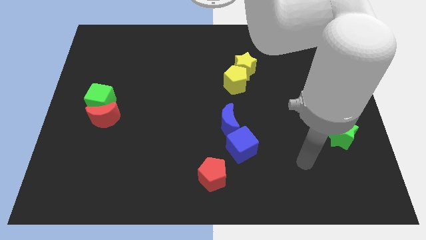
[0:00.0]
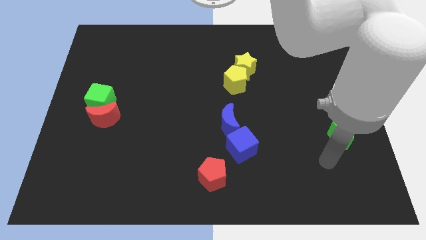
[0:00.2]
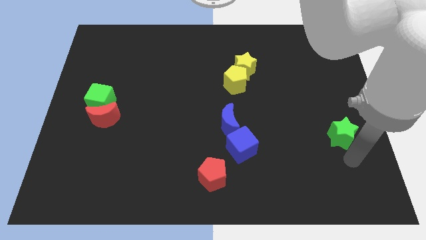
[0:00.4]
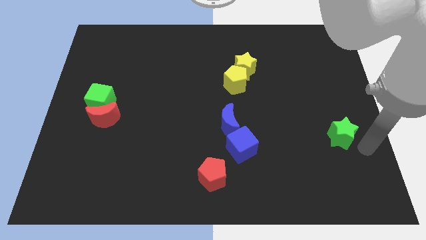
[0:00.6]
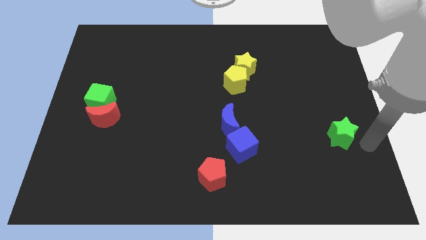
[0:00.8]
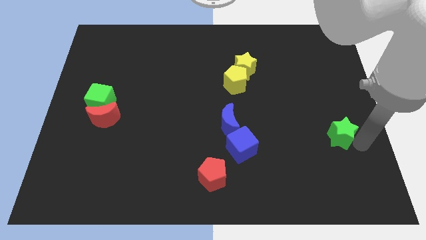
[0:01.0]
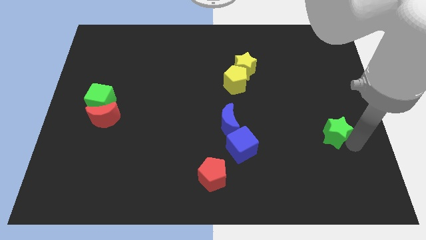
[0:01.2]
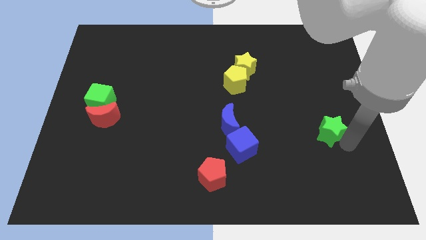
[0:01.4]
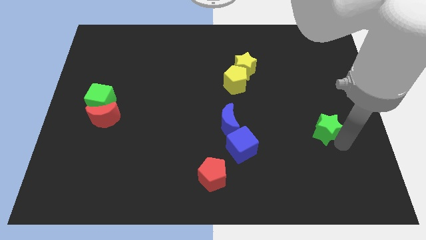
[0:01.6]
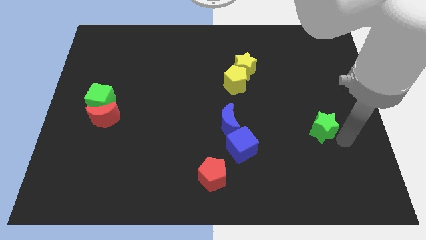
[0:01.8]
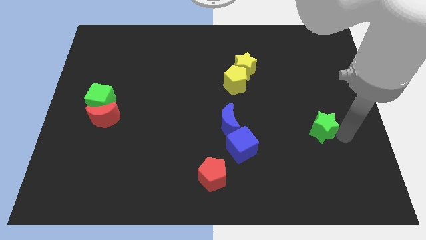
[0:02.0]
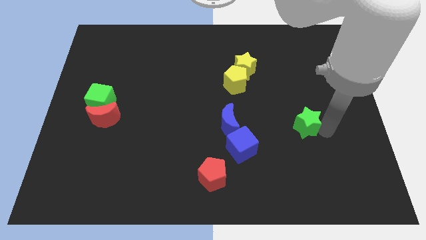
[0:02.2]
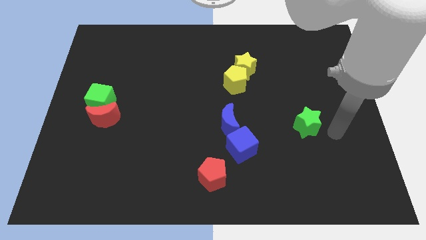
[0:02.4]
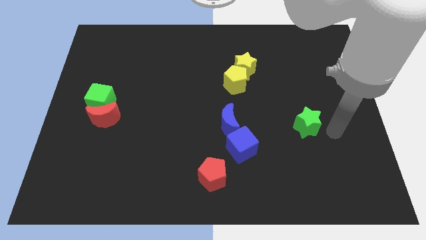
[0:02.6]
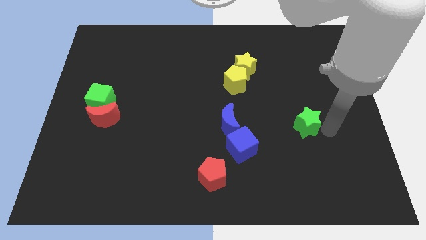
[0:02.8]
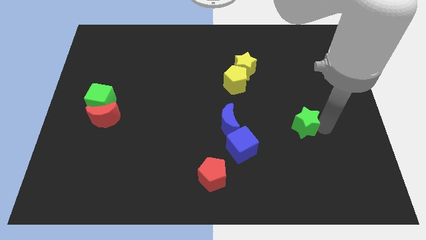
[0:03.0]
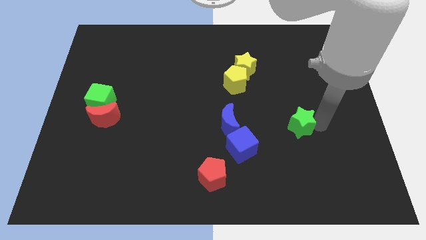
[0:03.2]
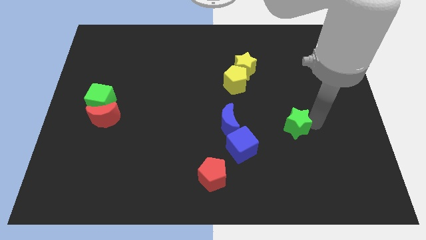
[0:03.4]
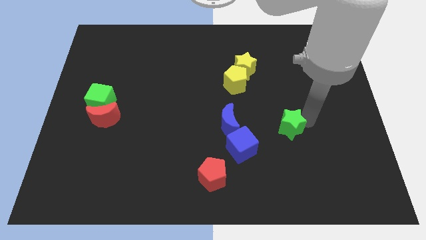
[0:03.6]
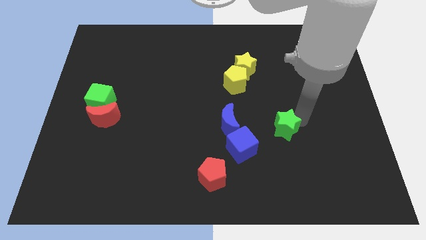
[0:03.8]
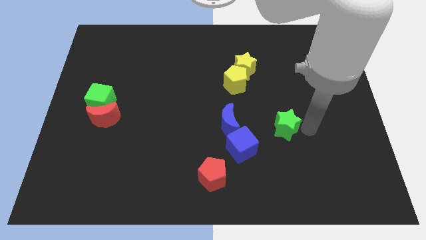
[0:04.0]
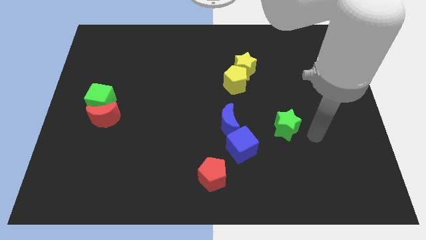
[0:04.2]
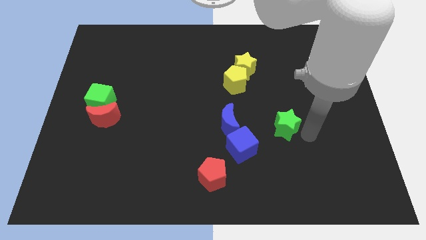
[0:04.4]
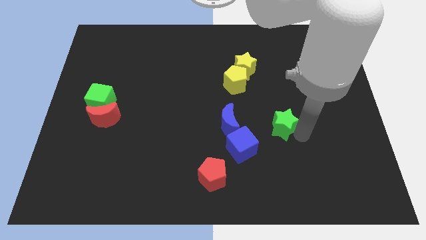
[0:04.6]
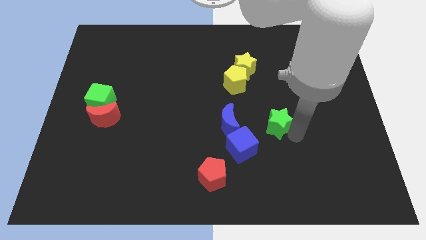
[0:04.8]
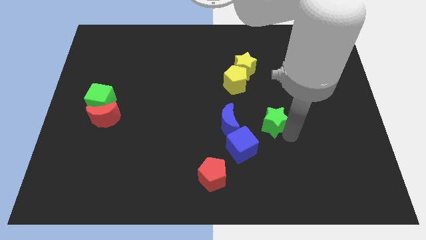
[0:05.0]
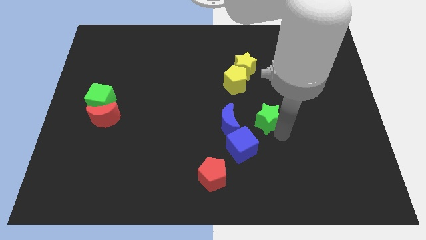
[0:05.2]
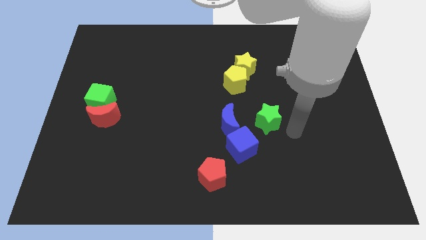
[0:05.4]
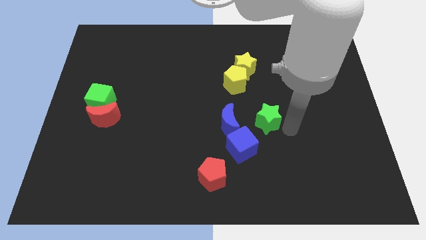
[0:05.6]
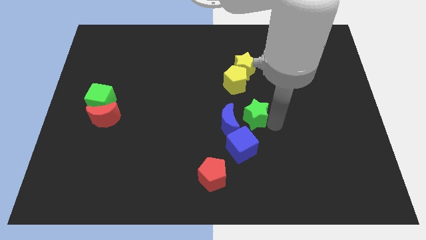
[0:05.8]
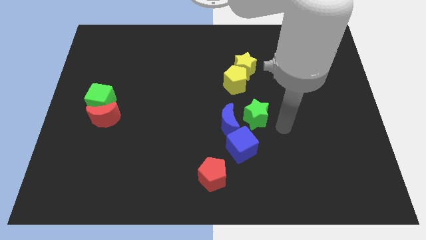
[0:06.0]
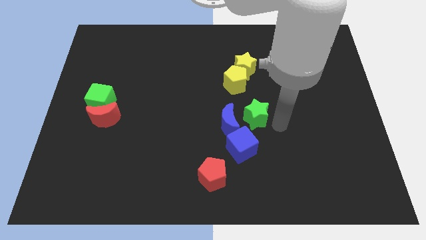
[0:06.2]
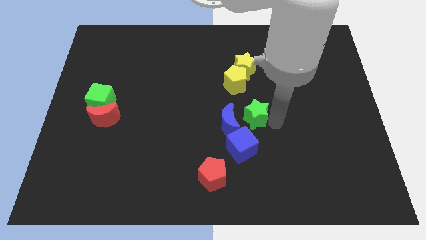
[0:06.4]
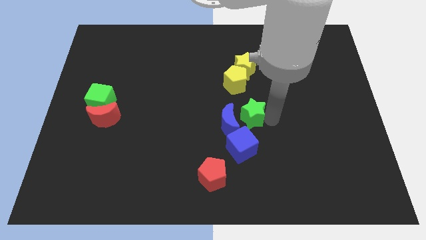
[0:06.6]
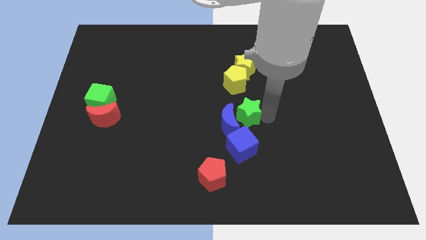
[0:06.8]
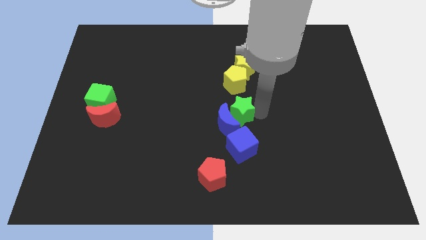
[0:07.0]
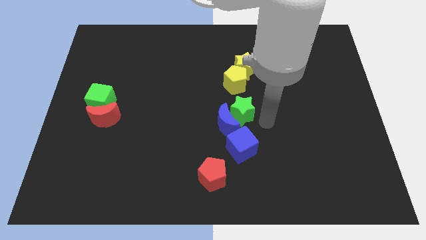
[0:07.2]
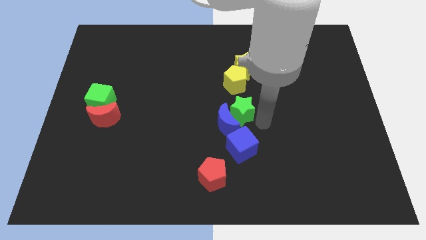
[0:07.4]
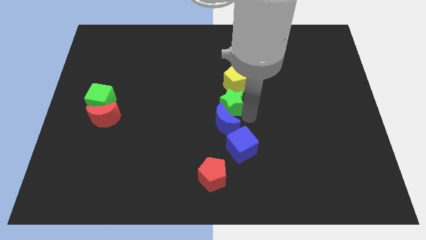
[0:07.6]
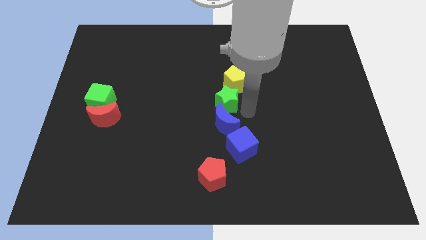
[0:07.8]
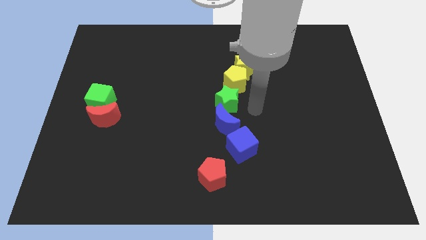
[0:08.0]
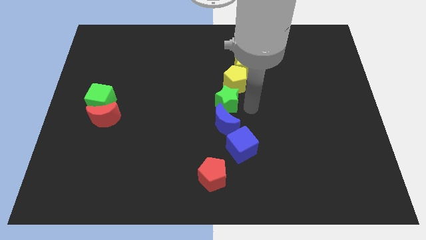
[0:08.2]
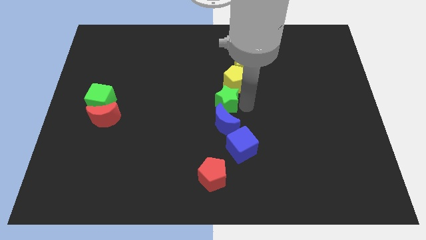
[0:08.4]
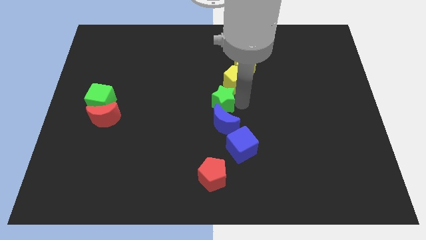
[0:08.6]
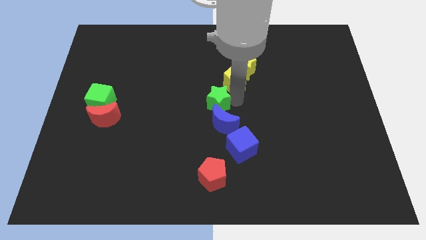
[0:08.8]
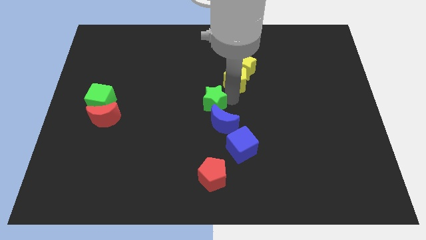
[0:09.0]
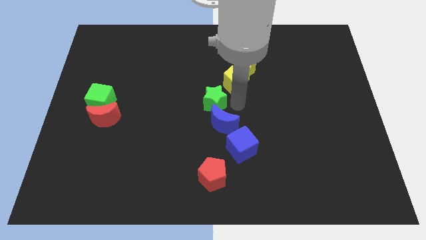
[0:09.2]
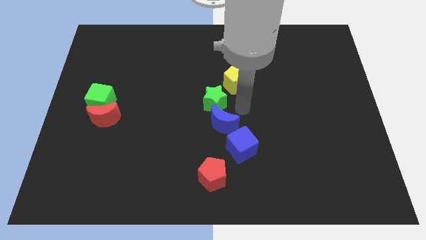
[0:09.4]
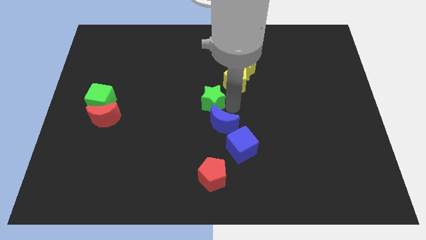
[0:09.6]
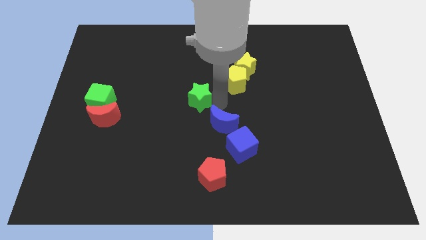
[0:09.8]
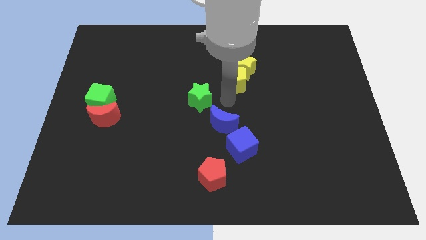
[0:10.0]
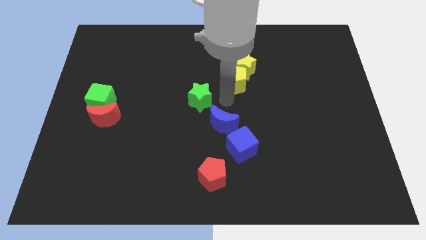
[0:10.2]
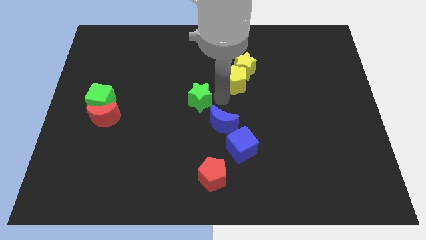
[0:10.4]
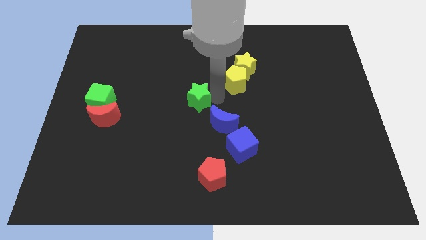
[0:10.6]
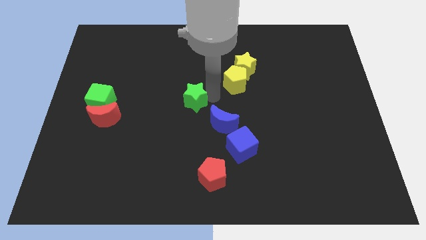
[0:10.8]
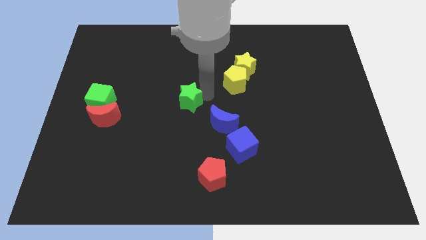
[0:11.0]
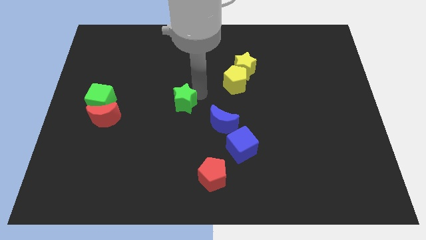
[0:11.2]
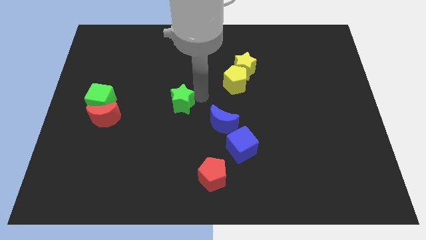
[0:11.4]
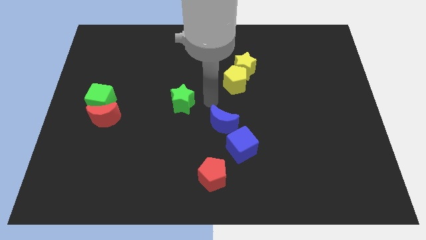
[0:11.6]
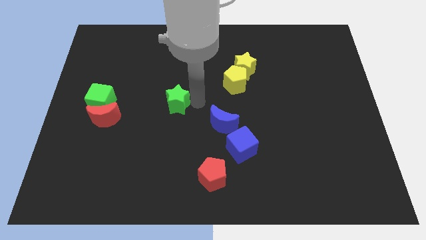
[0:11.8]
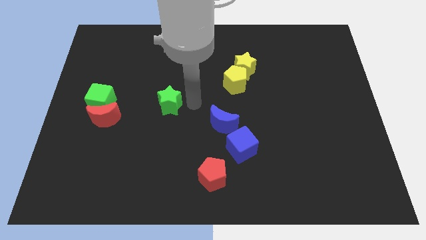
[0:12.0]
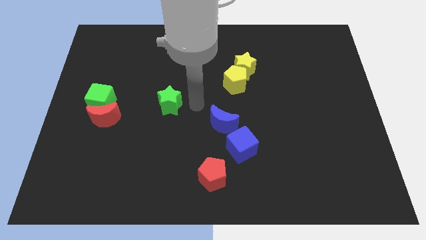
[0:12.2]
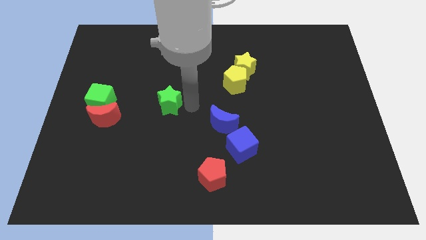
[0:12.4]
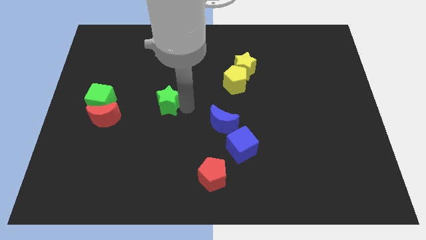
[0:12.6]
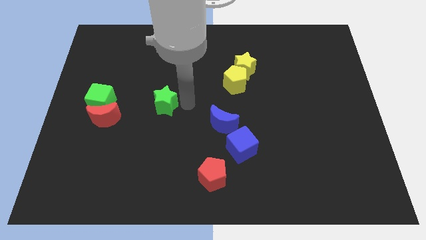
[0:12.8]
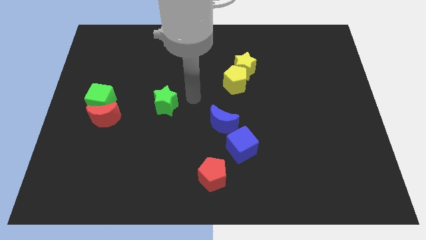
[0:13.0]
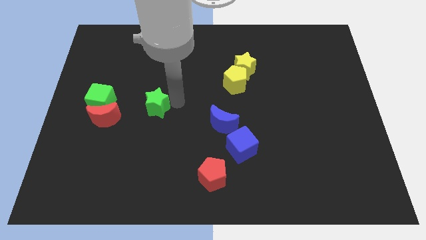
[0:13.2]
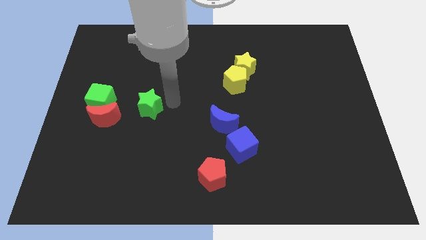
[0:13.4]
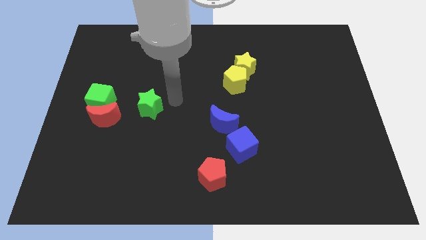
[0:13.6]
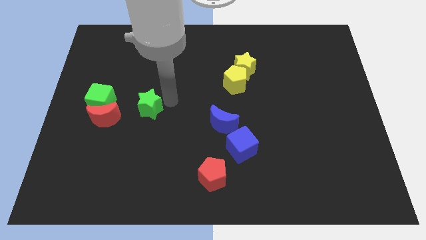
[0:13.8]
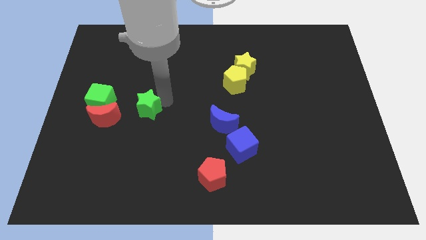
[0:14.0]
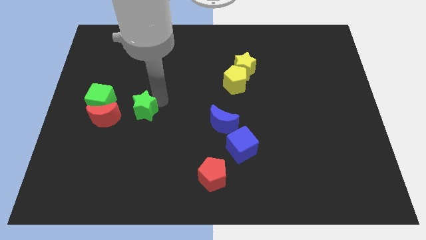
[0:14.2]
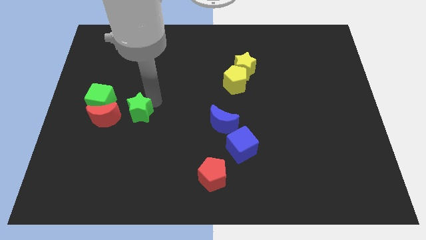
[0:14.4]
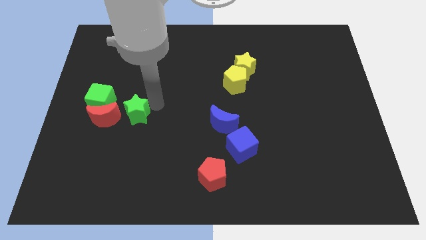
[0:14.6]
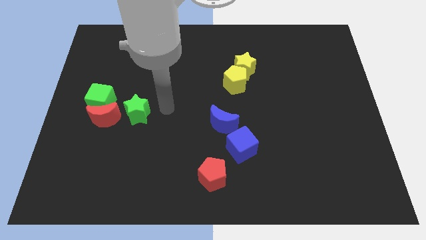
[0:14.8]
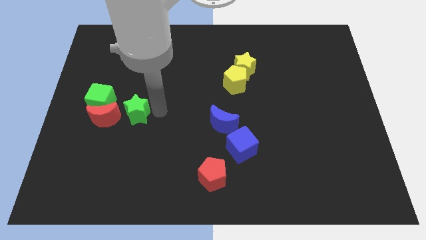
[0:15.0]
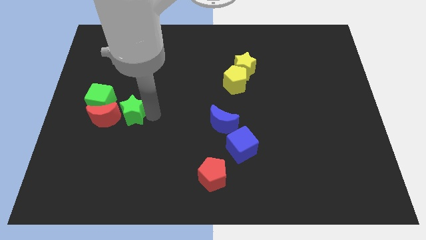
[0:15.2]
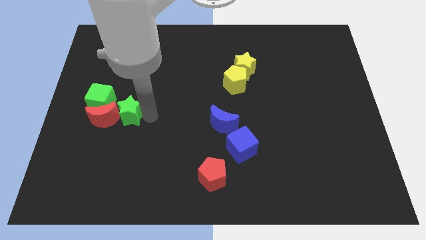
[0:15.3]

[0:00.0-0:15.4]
push the green star close to the red moon
